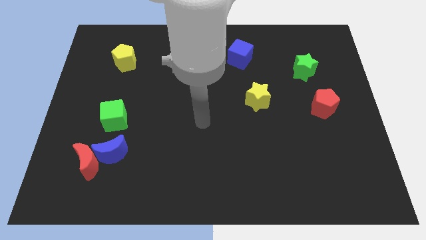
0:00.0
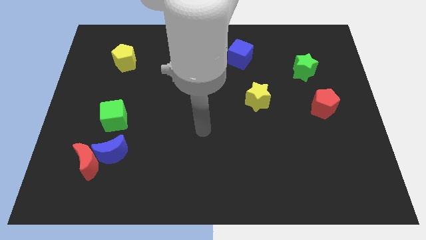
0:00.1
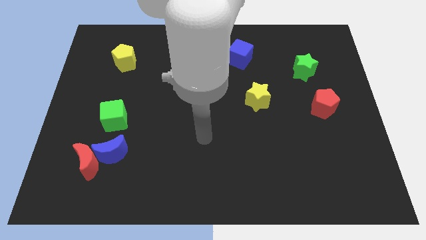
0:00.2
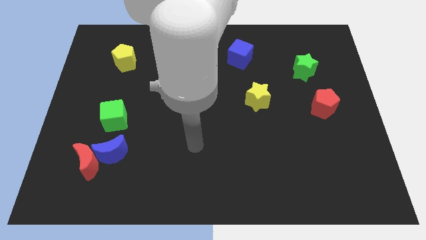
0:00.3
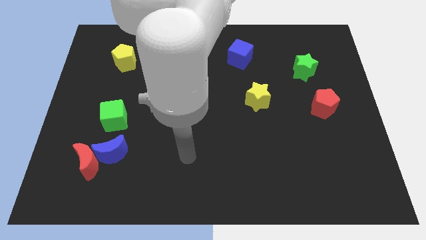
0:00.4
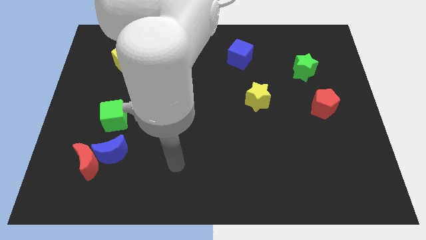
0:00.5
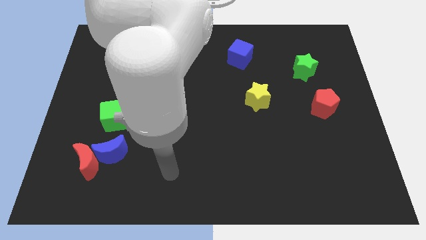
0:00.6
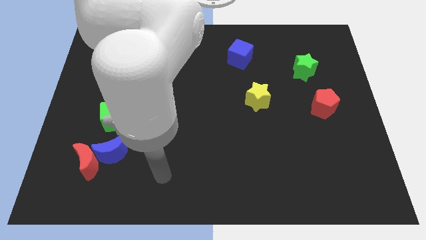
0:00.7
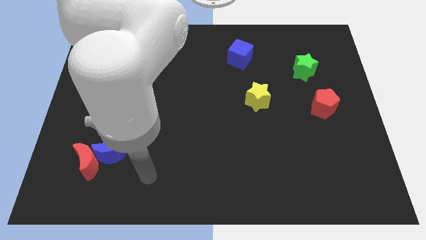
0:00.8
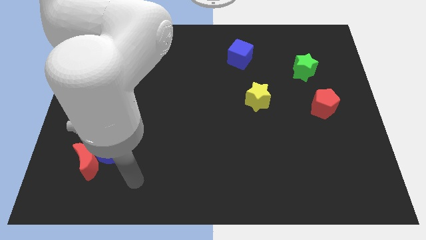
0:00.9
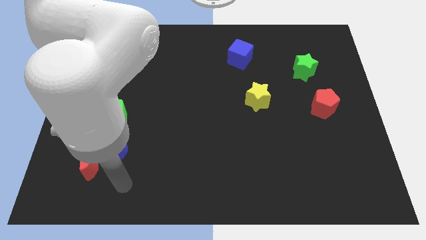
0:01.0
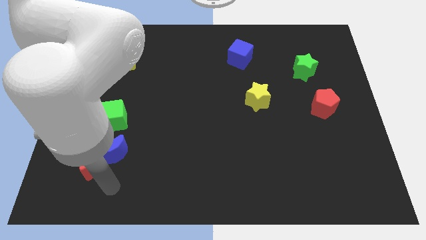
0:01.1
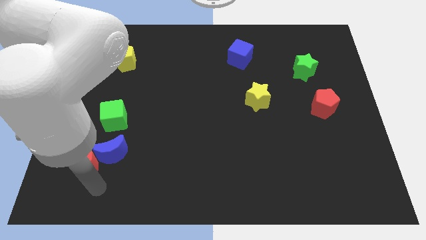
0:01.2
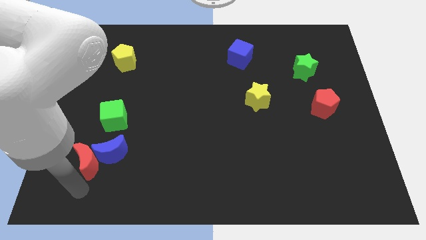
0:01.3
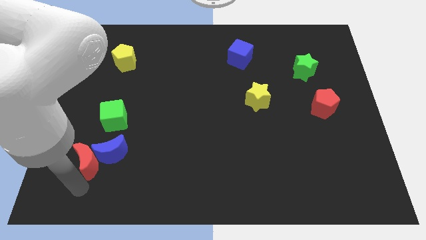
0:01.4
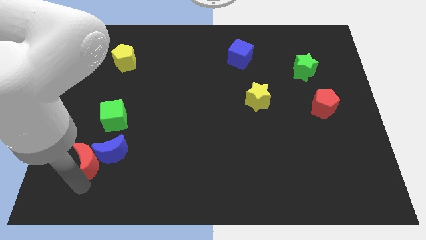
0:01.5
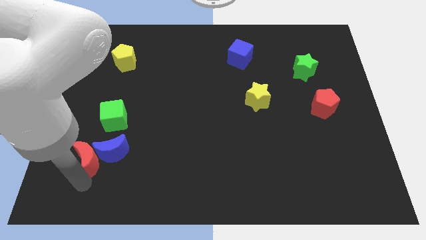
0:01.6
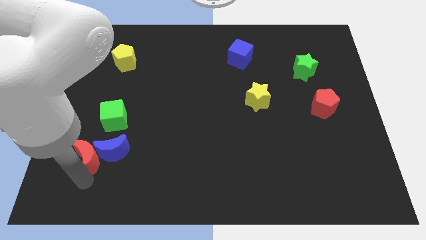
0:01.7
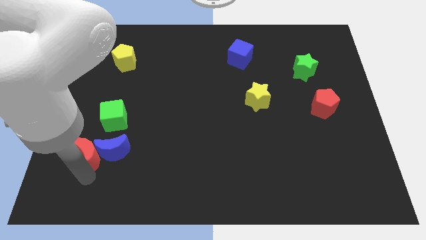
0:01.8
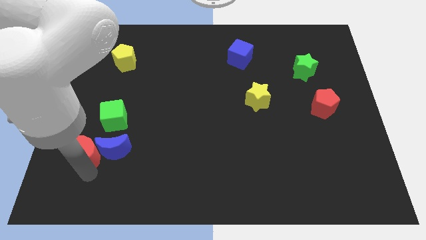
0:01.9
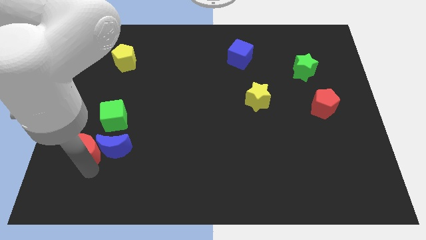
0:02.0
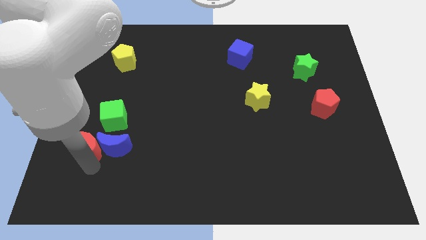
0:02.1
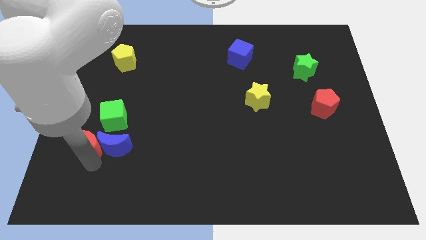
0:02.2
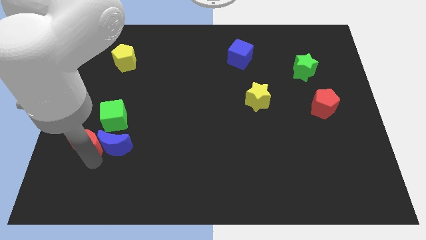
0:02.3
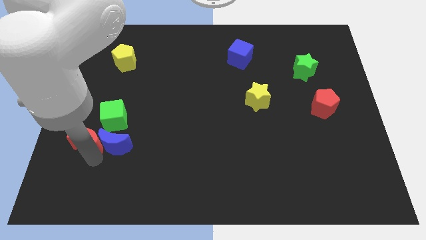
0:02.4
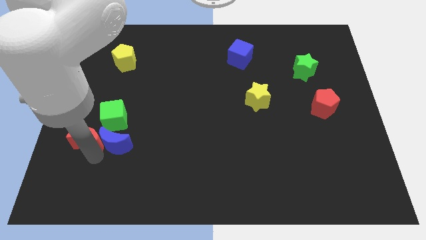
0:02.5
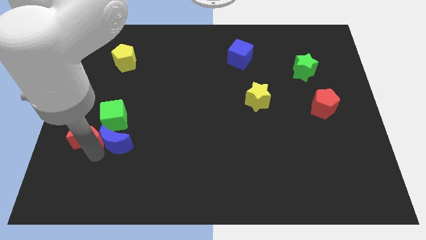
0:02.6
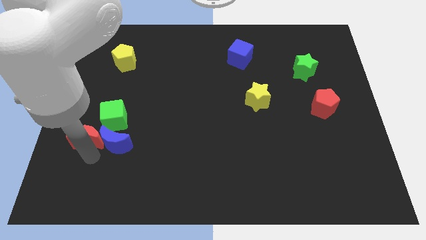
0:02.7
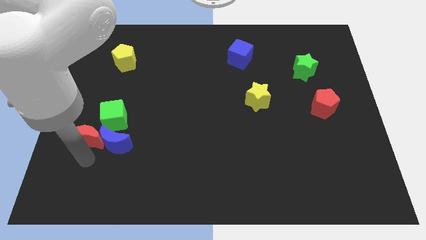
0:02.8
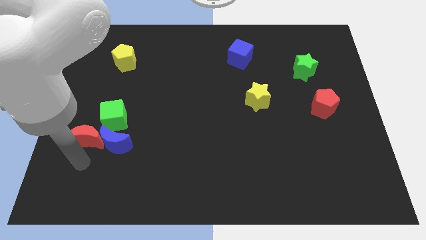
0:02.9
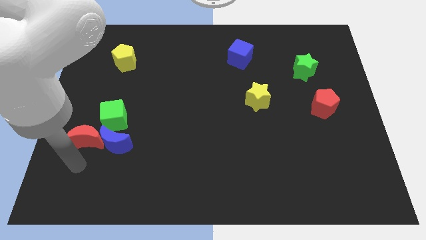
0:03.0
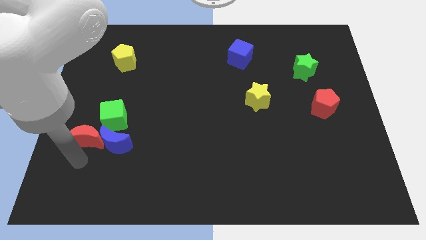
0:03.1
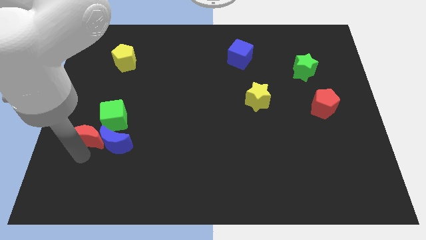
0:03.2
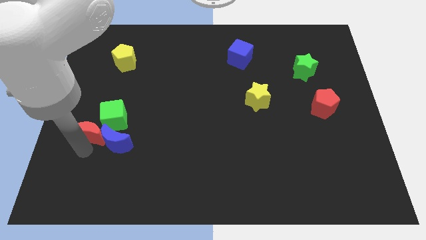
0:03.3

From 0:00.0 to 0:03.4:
slide the red moon upwards a bit

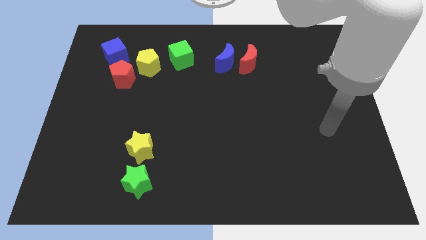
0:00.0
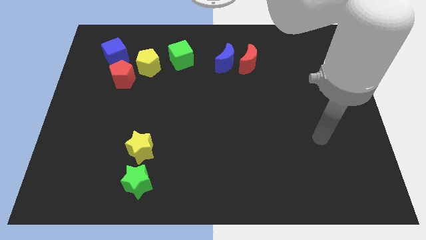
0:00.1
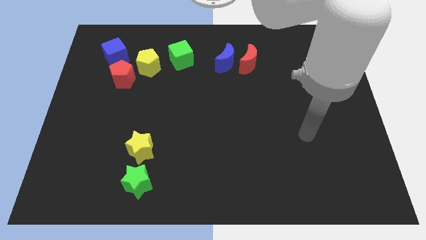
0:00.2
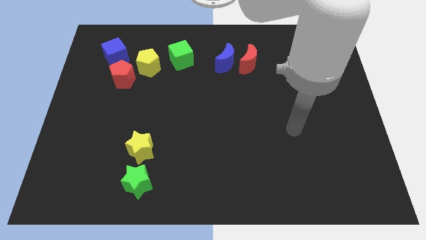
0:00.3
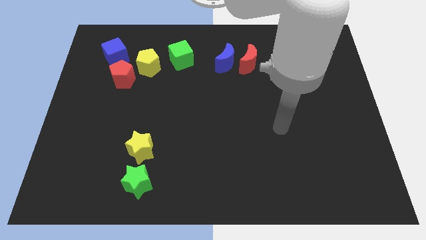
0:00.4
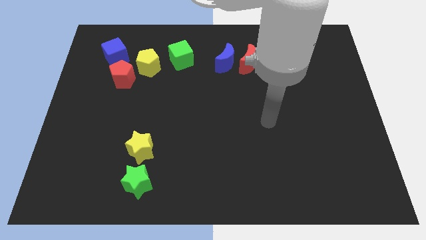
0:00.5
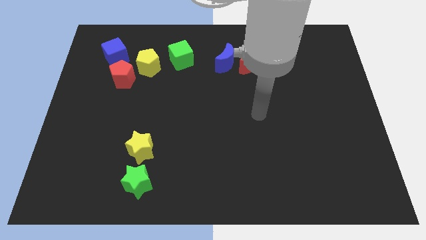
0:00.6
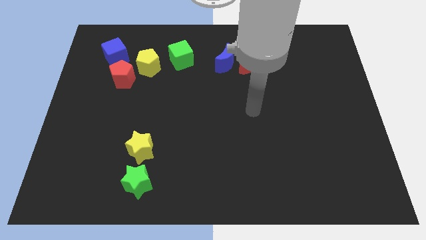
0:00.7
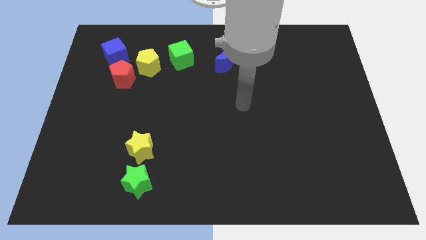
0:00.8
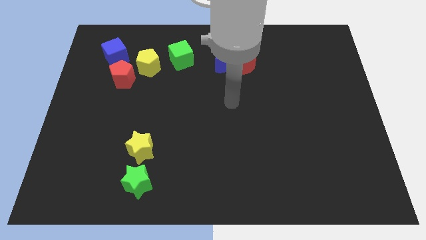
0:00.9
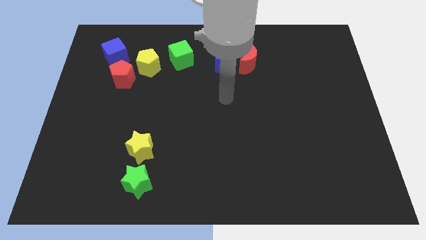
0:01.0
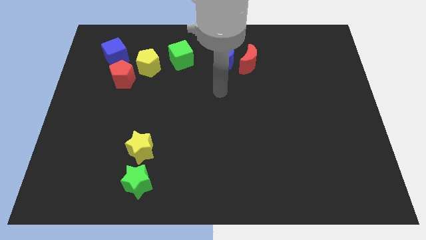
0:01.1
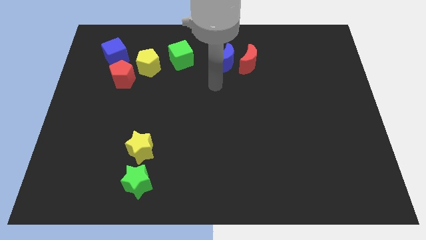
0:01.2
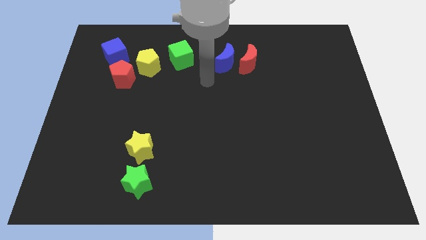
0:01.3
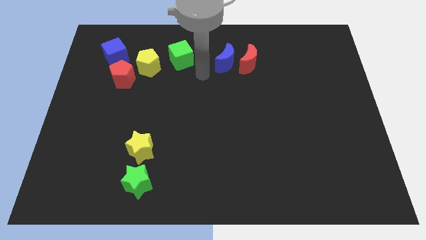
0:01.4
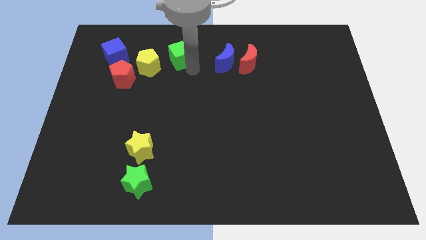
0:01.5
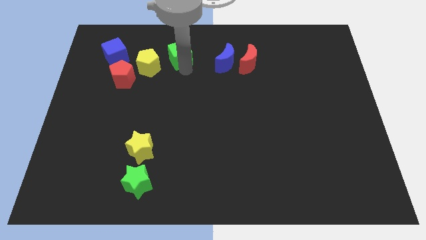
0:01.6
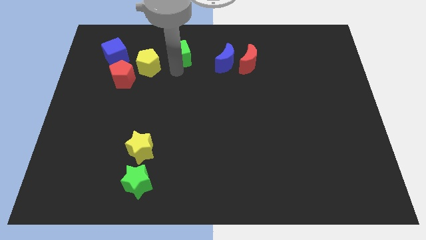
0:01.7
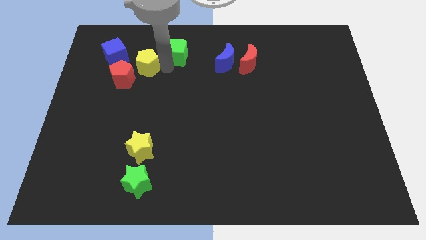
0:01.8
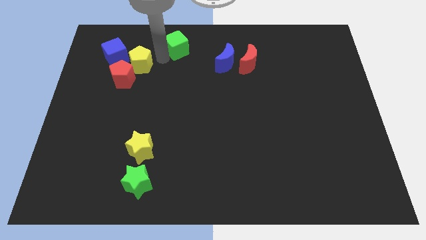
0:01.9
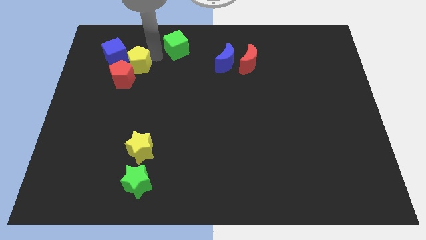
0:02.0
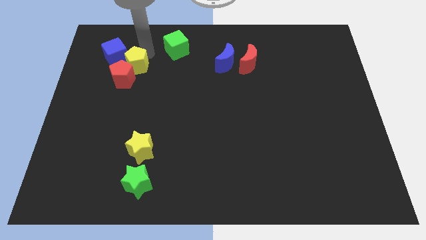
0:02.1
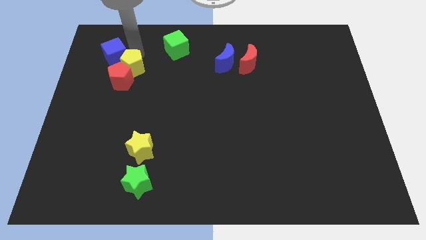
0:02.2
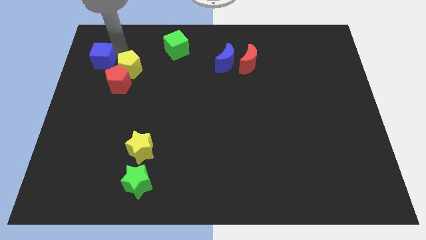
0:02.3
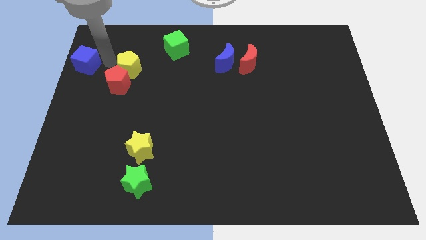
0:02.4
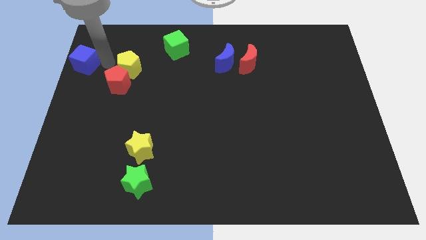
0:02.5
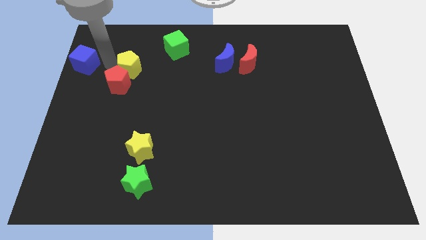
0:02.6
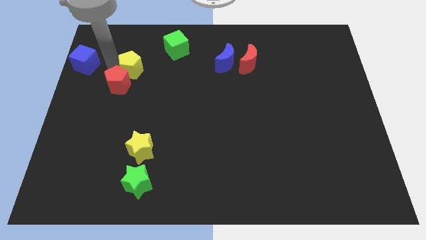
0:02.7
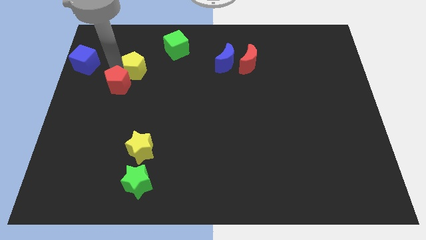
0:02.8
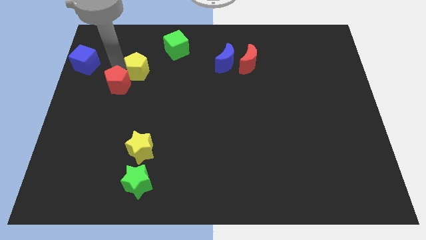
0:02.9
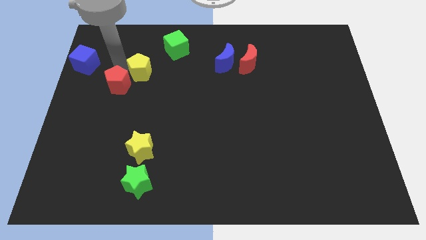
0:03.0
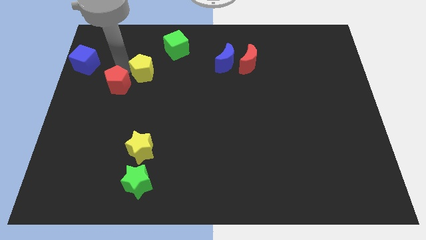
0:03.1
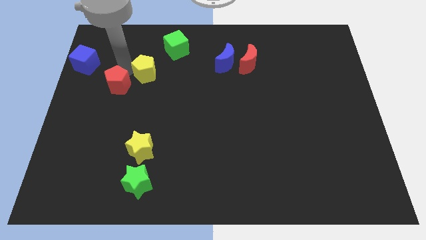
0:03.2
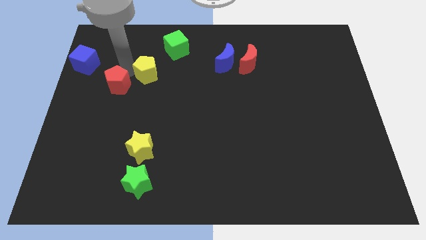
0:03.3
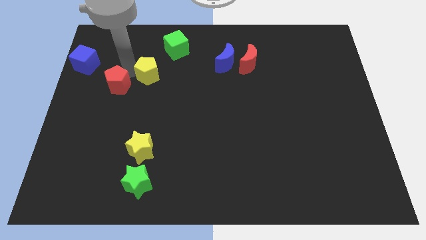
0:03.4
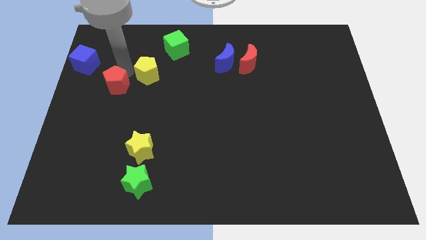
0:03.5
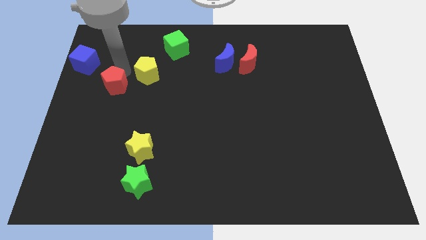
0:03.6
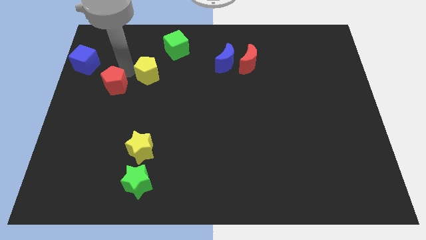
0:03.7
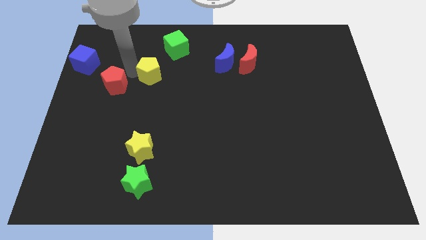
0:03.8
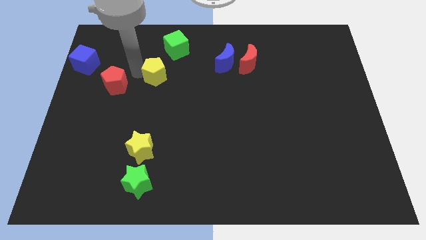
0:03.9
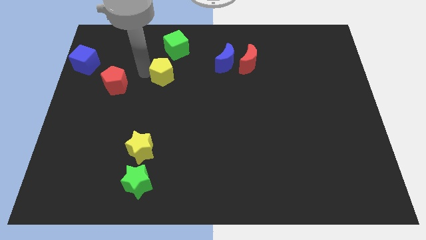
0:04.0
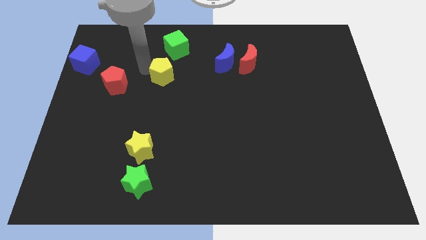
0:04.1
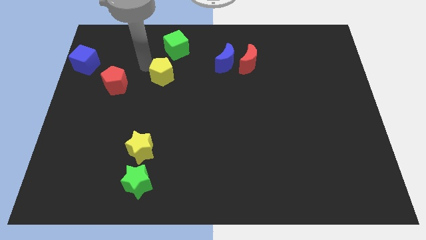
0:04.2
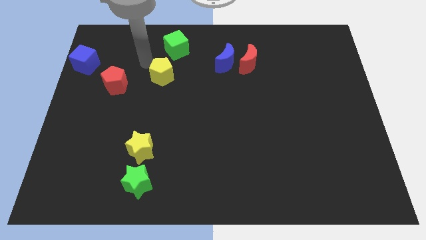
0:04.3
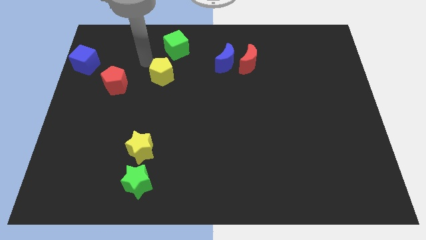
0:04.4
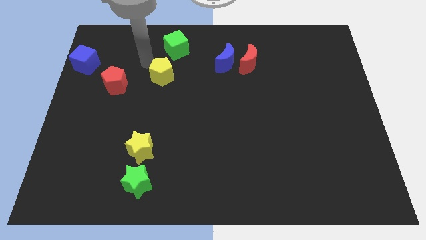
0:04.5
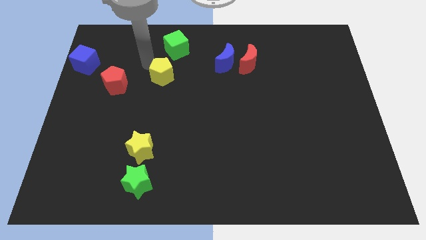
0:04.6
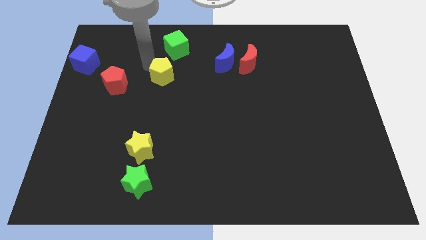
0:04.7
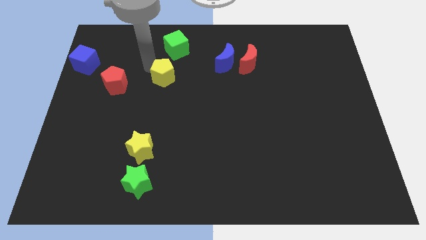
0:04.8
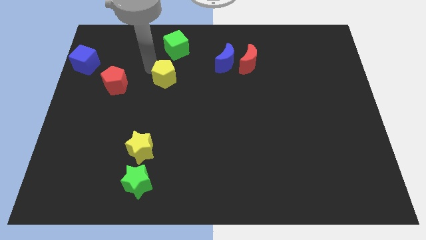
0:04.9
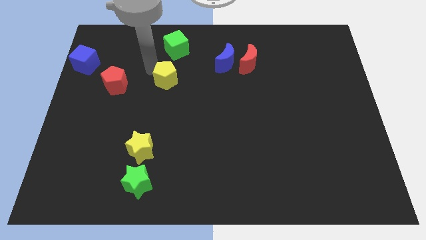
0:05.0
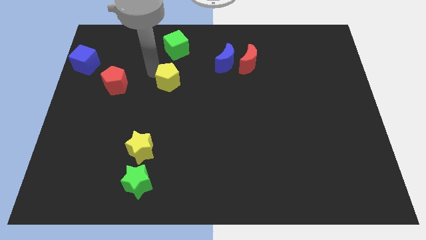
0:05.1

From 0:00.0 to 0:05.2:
push the yellow pentagon diagonally down and right a little
